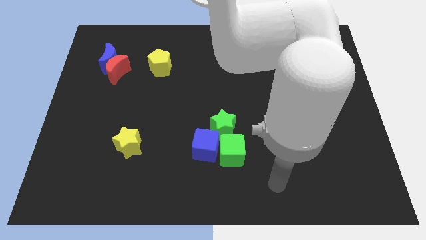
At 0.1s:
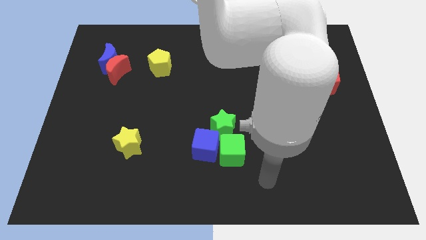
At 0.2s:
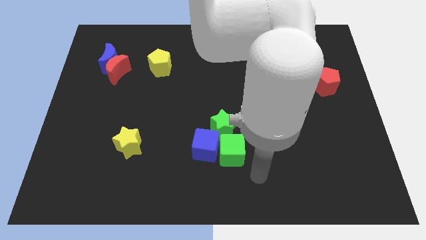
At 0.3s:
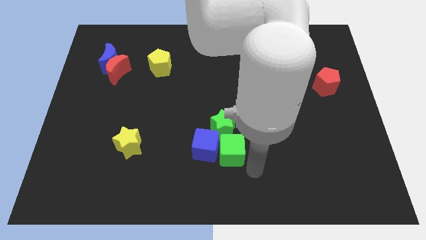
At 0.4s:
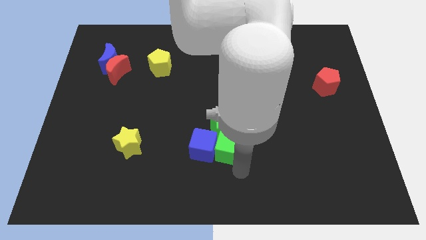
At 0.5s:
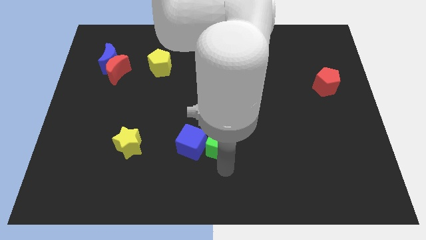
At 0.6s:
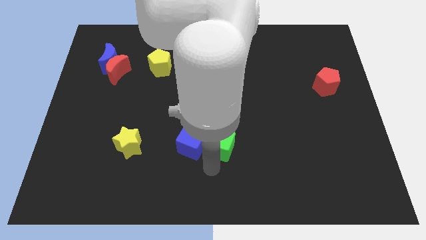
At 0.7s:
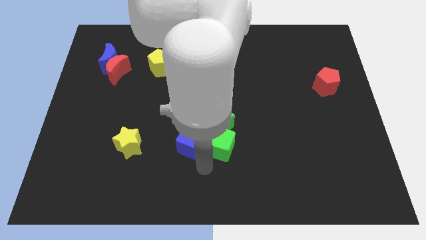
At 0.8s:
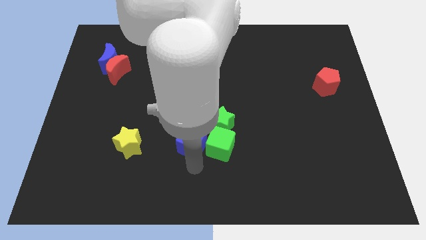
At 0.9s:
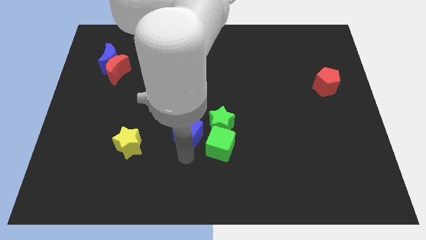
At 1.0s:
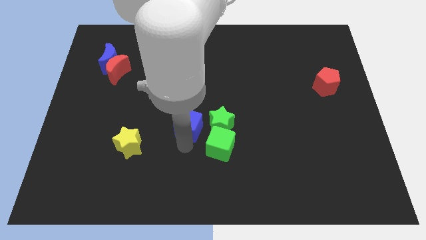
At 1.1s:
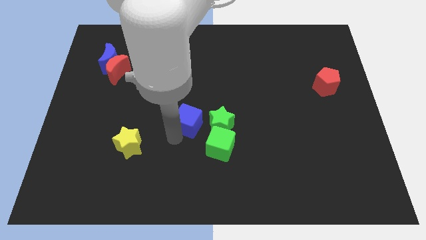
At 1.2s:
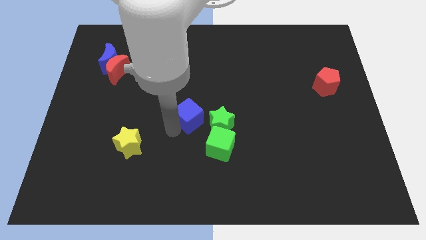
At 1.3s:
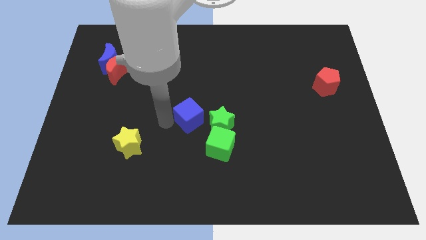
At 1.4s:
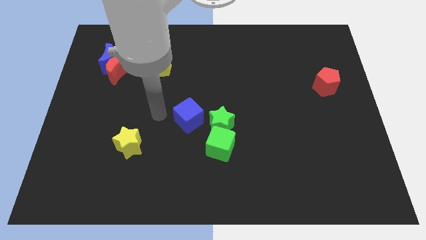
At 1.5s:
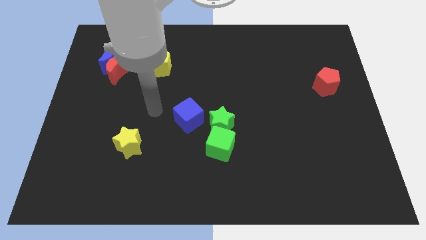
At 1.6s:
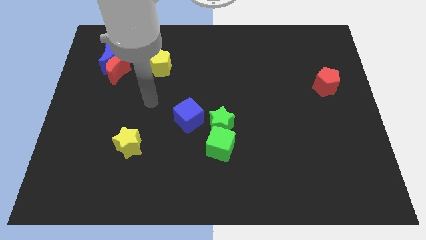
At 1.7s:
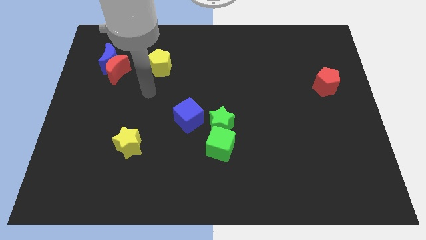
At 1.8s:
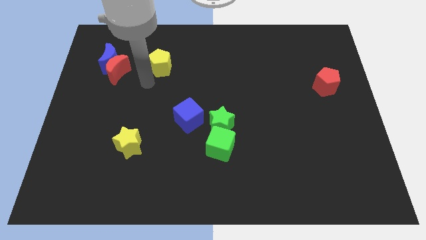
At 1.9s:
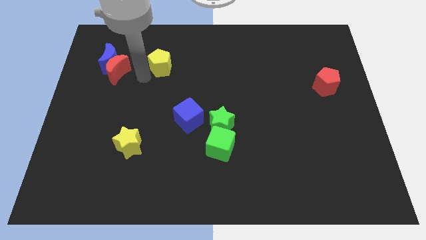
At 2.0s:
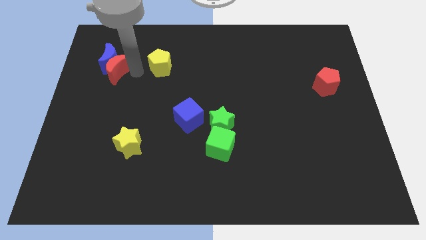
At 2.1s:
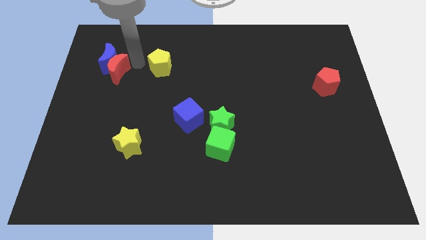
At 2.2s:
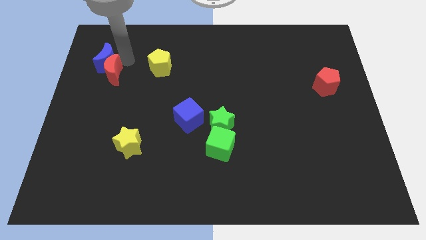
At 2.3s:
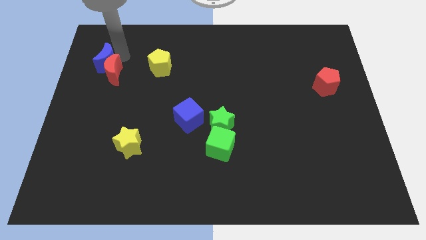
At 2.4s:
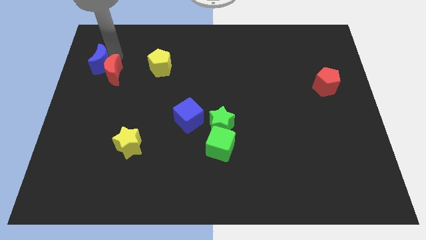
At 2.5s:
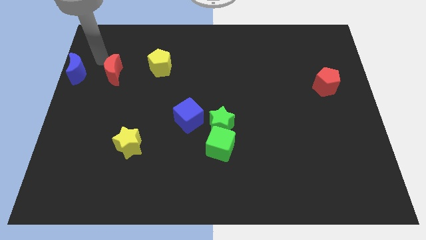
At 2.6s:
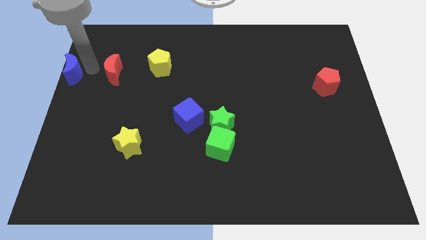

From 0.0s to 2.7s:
pull the red moon apart from the blue moon

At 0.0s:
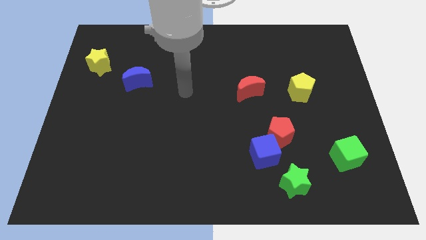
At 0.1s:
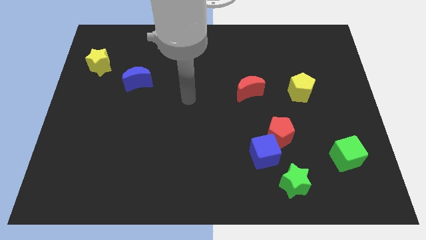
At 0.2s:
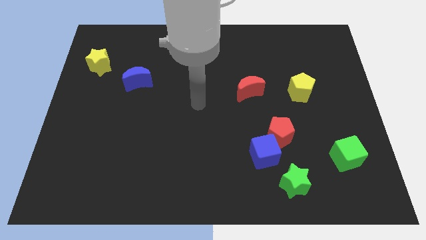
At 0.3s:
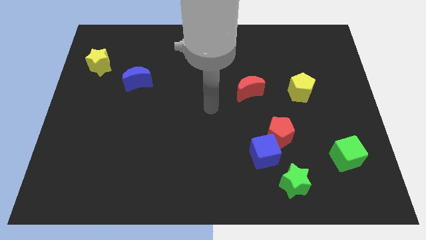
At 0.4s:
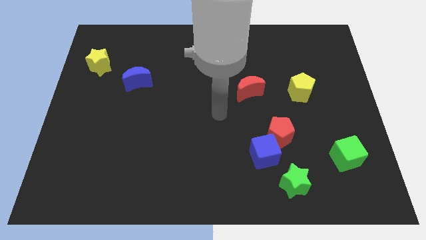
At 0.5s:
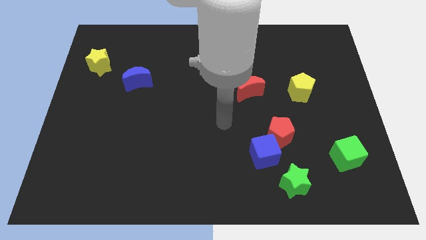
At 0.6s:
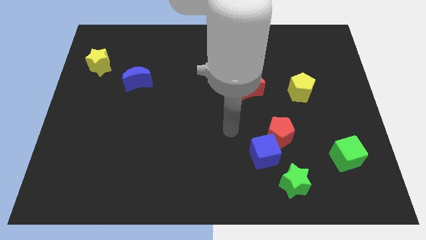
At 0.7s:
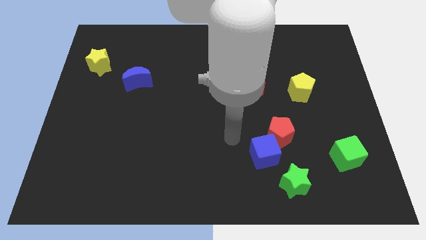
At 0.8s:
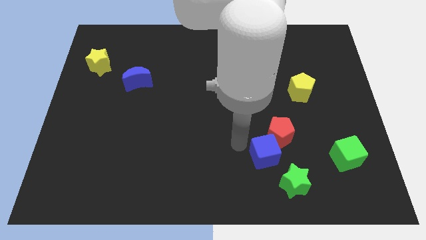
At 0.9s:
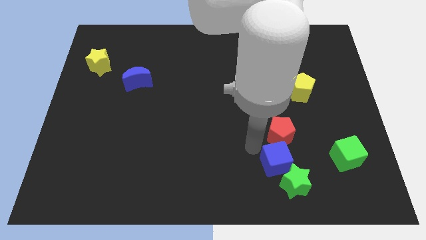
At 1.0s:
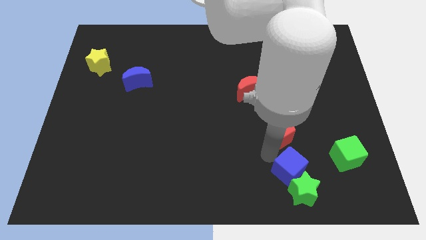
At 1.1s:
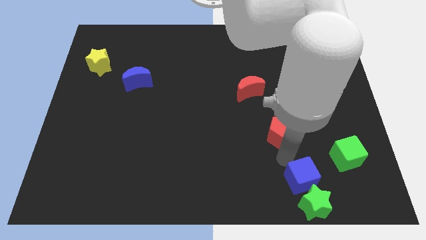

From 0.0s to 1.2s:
move the red pentagon away from the blue cube

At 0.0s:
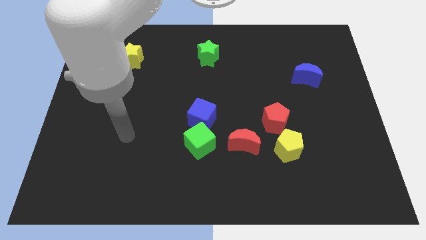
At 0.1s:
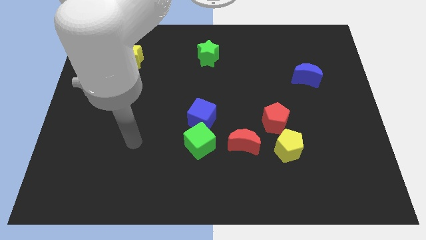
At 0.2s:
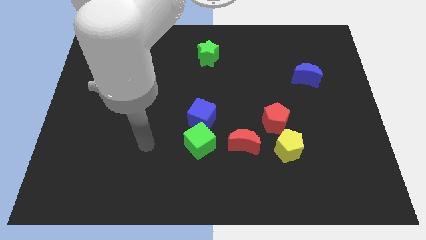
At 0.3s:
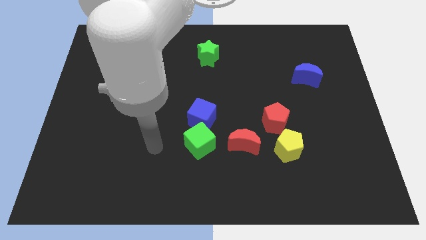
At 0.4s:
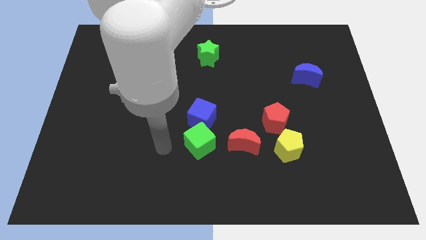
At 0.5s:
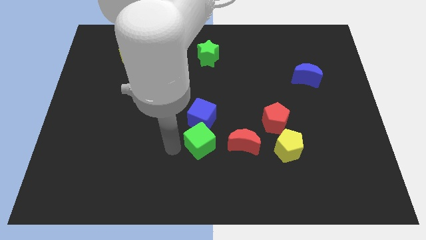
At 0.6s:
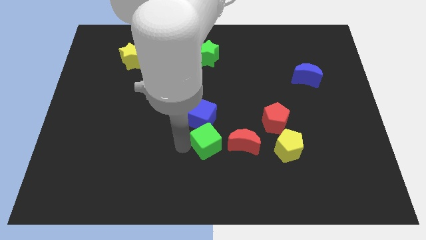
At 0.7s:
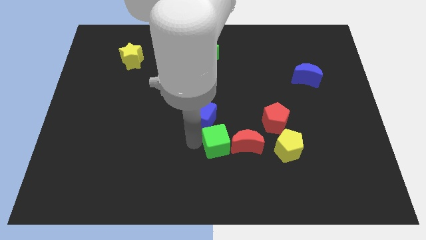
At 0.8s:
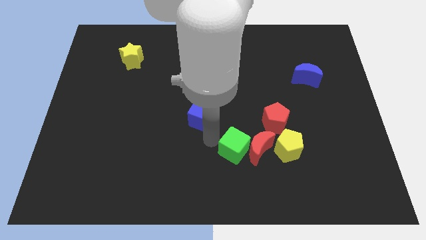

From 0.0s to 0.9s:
separate the blue cube from the green cube

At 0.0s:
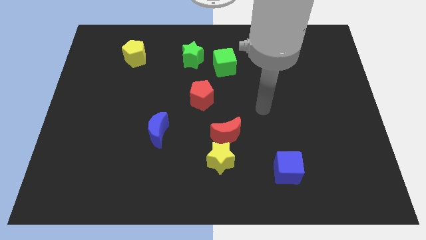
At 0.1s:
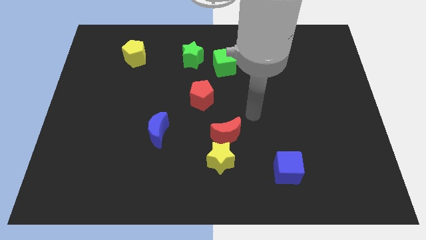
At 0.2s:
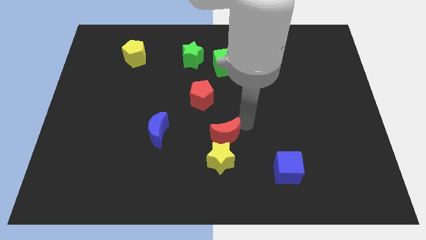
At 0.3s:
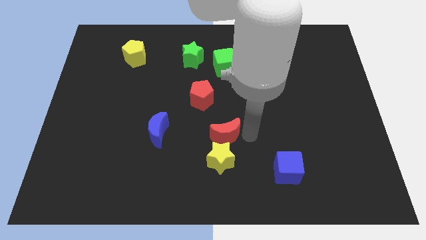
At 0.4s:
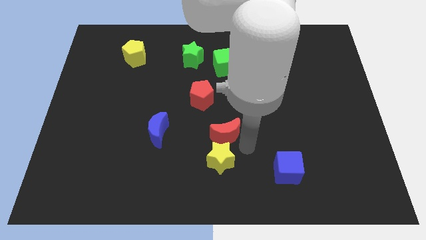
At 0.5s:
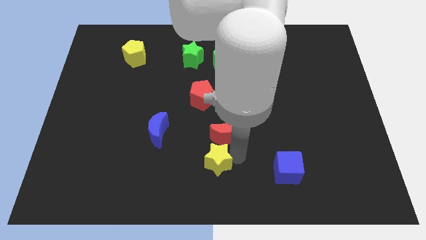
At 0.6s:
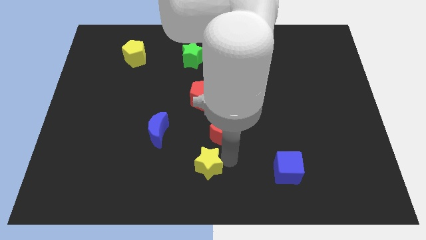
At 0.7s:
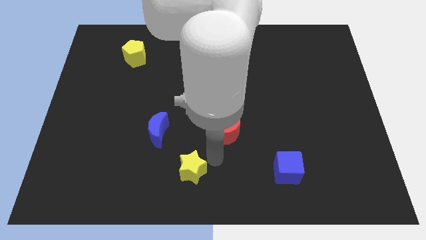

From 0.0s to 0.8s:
pull the red moon apart from the yellow star

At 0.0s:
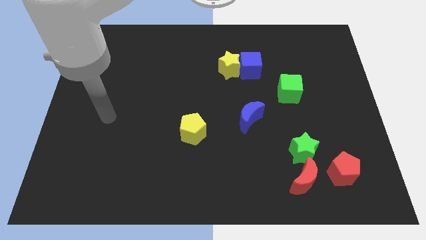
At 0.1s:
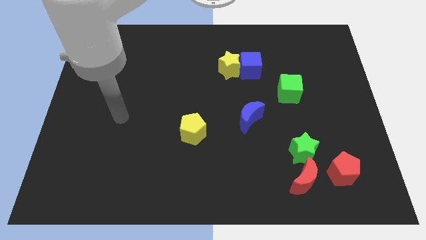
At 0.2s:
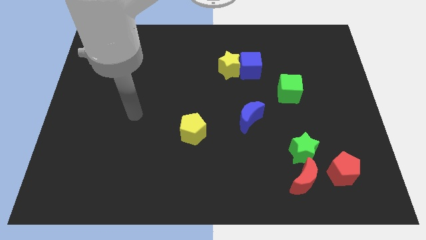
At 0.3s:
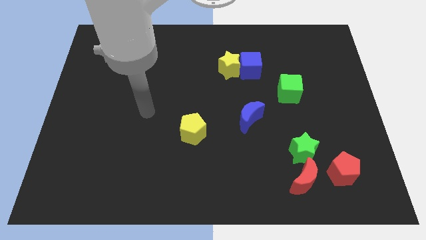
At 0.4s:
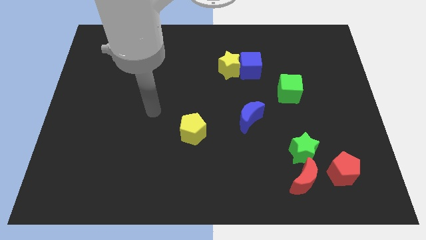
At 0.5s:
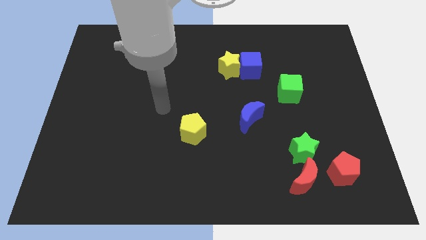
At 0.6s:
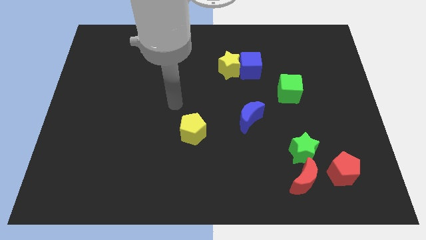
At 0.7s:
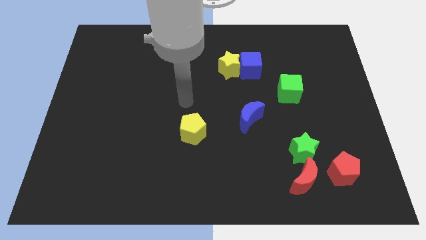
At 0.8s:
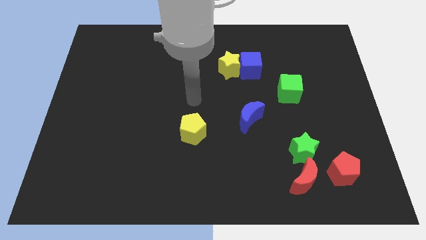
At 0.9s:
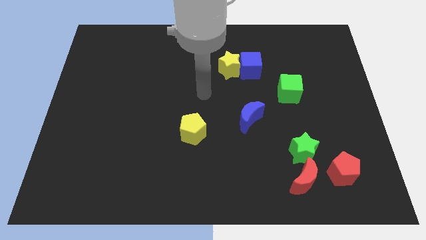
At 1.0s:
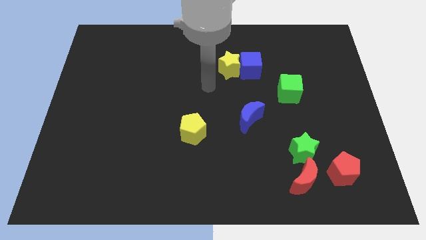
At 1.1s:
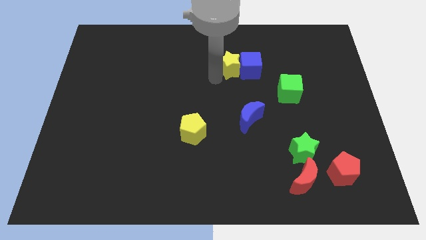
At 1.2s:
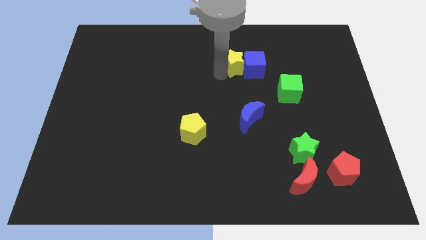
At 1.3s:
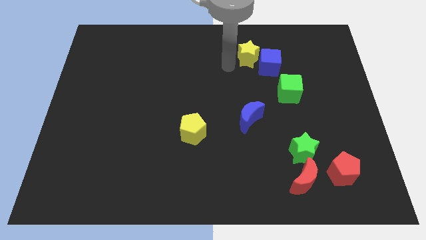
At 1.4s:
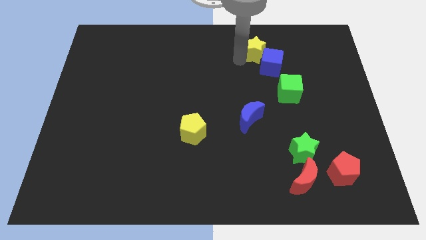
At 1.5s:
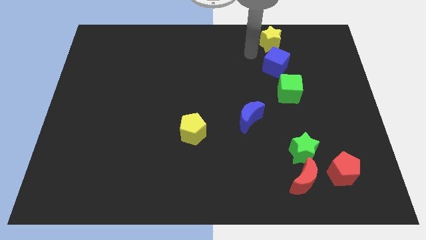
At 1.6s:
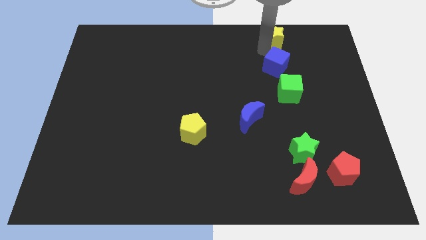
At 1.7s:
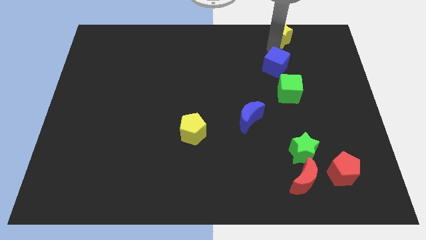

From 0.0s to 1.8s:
pull the blue cube apart from the yellow star

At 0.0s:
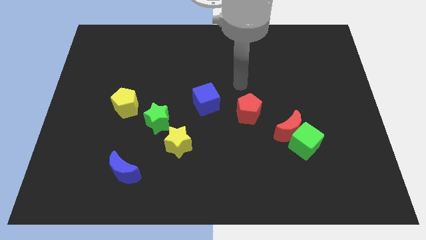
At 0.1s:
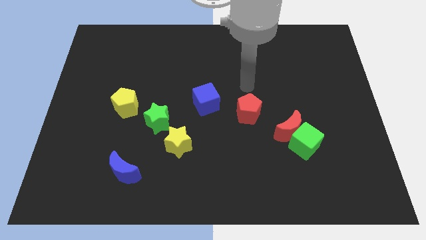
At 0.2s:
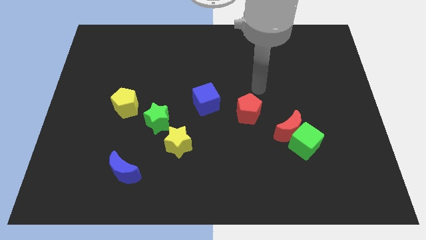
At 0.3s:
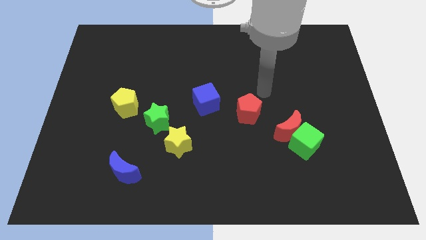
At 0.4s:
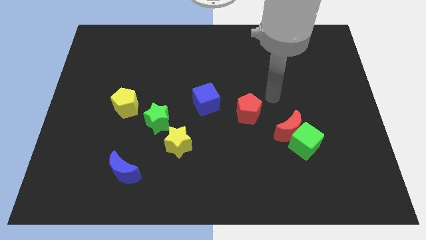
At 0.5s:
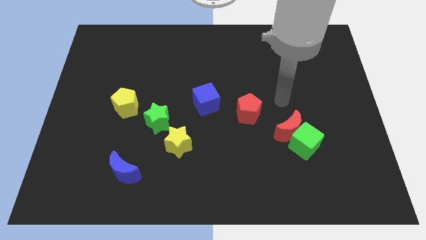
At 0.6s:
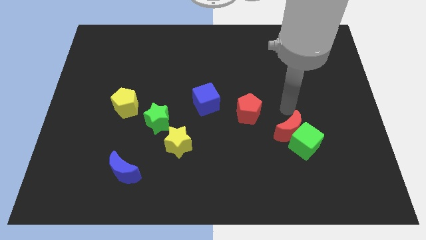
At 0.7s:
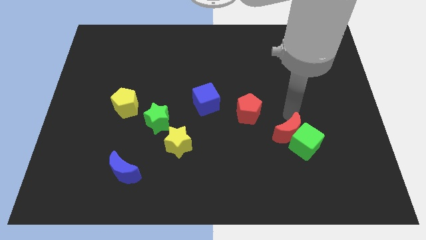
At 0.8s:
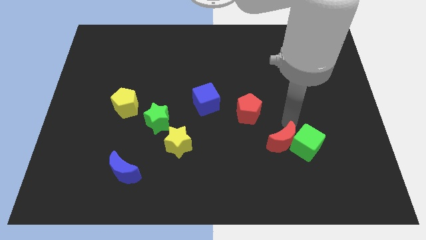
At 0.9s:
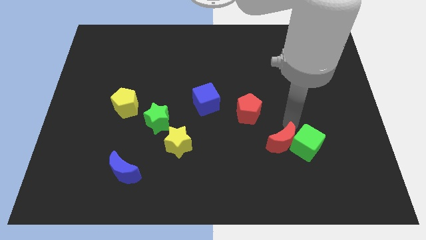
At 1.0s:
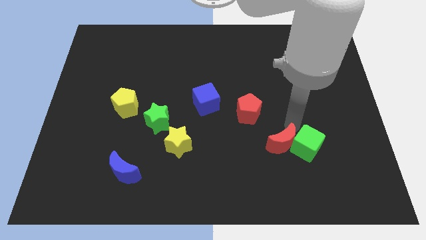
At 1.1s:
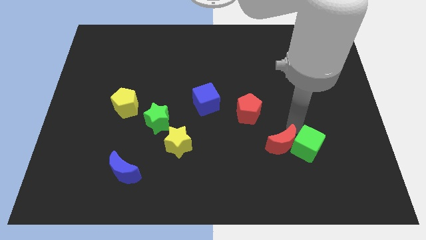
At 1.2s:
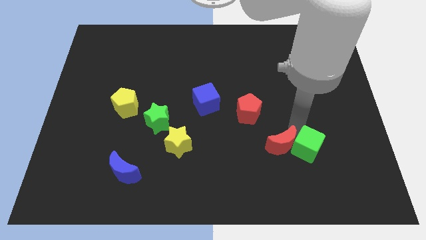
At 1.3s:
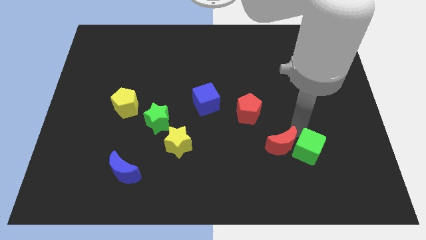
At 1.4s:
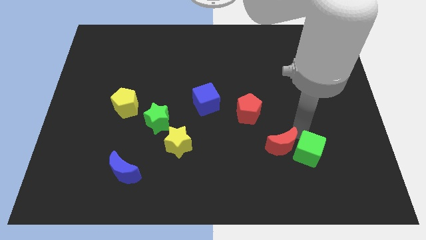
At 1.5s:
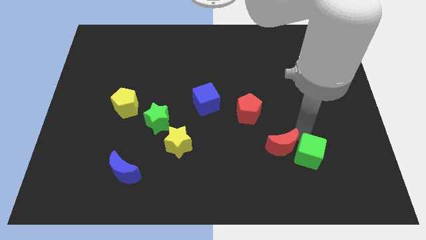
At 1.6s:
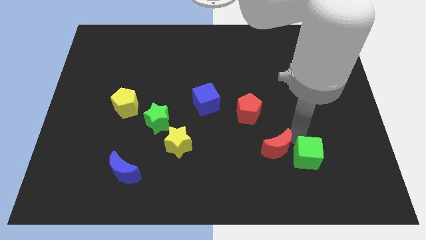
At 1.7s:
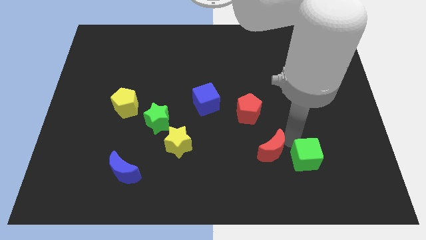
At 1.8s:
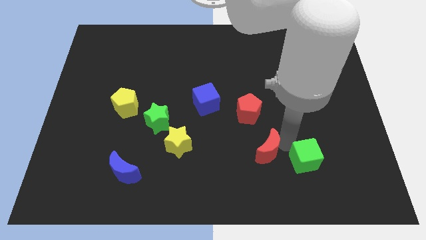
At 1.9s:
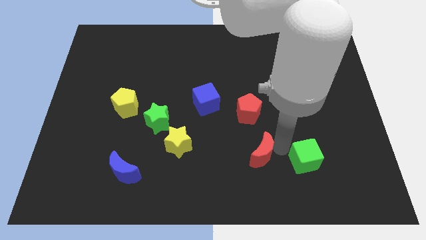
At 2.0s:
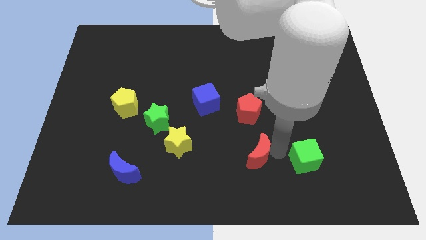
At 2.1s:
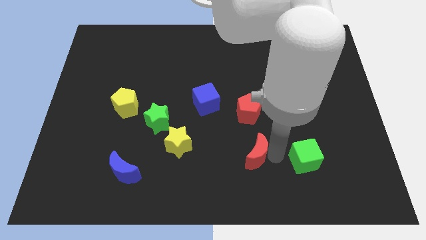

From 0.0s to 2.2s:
pull the green cube apart from the red moon
